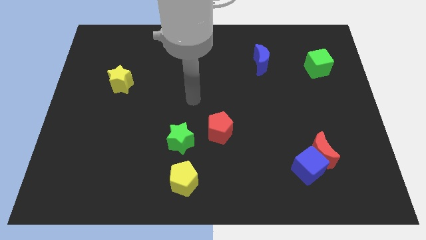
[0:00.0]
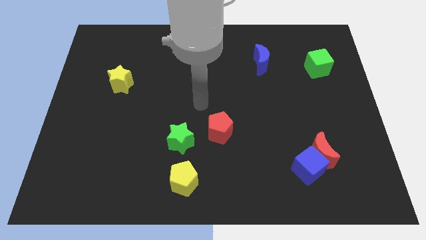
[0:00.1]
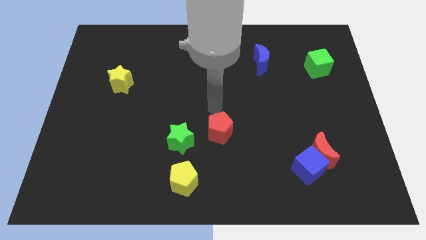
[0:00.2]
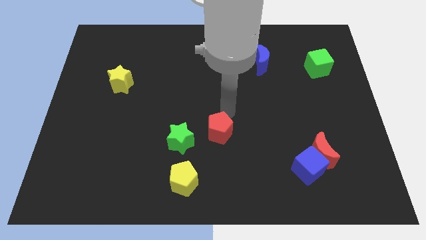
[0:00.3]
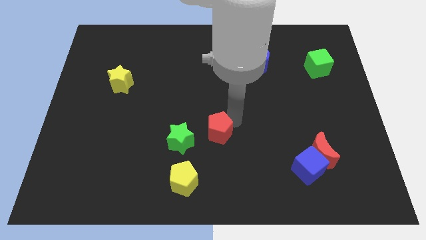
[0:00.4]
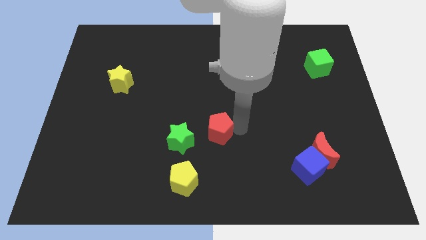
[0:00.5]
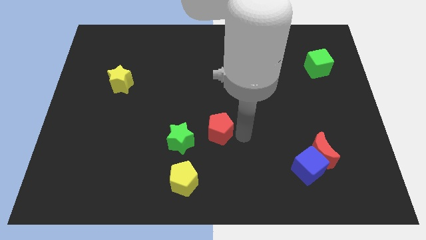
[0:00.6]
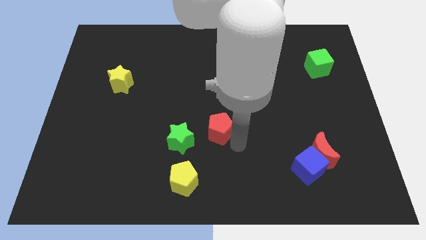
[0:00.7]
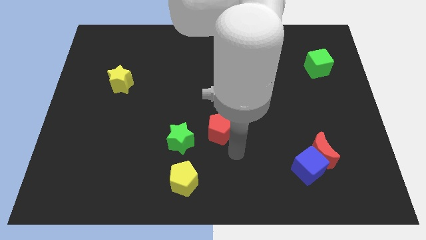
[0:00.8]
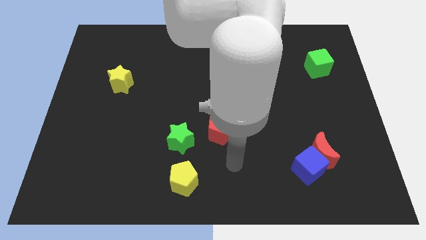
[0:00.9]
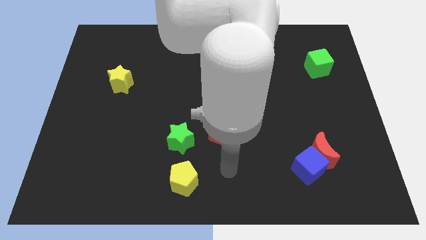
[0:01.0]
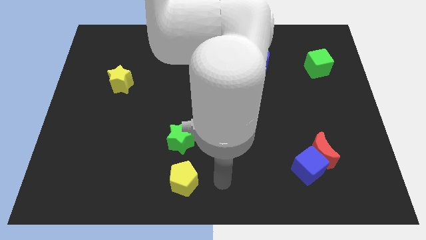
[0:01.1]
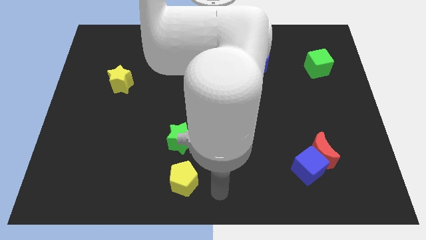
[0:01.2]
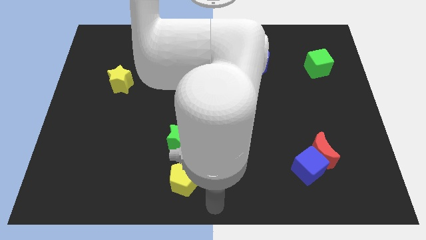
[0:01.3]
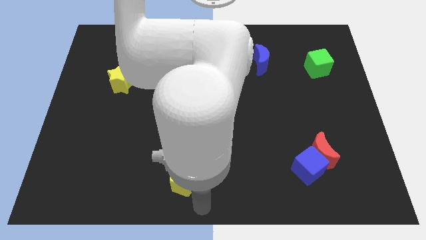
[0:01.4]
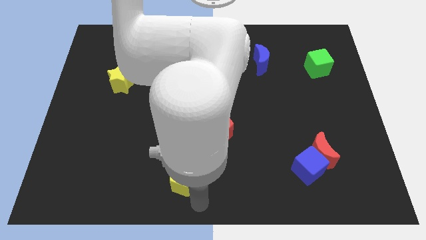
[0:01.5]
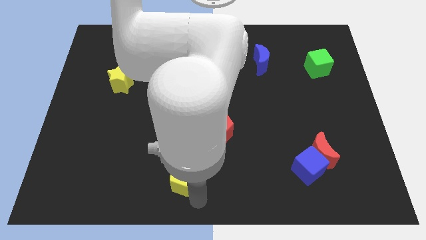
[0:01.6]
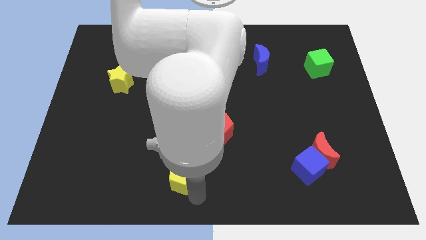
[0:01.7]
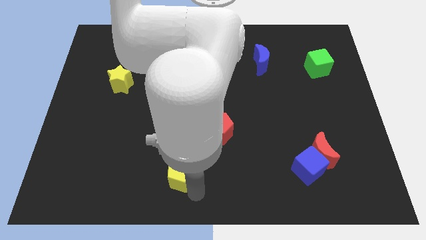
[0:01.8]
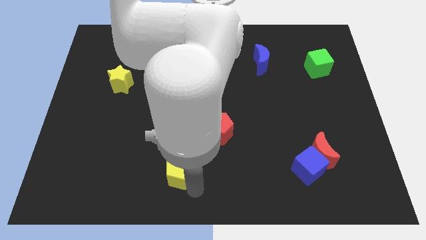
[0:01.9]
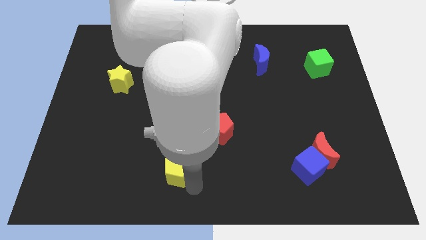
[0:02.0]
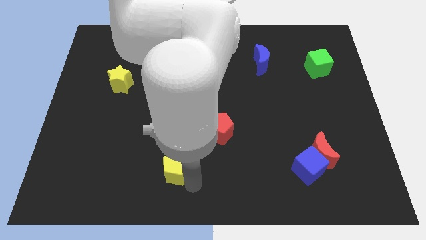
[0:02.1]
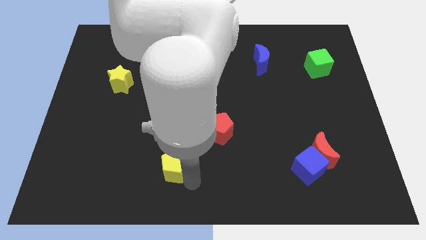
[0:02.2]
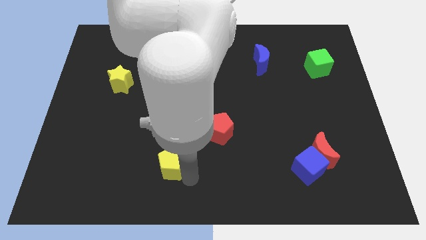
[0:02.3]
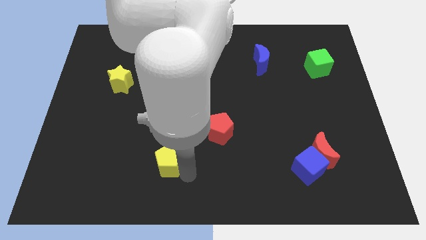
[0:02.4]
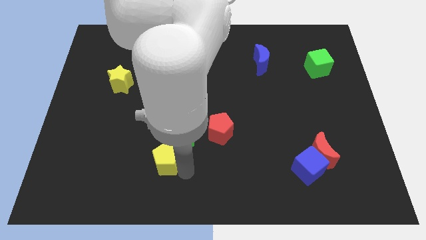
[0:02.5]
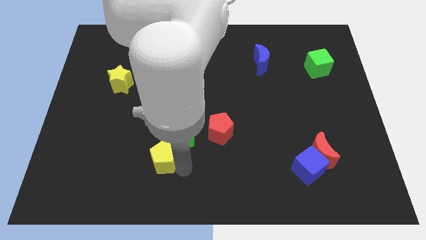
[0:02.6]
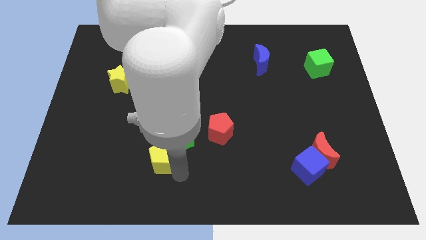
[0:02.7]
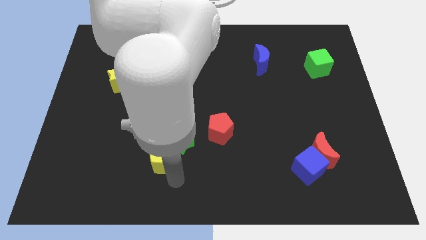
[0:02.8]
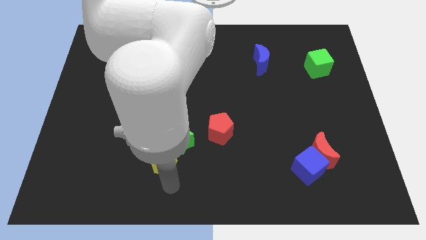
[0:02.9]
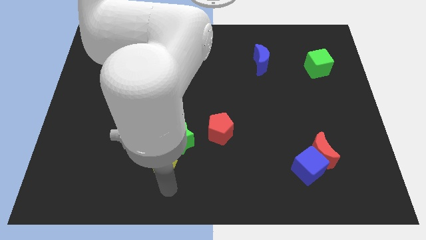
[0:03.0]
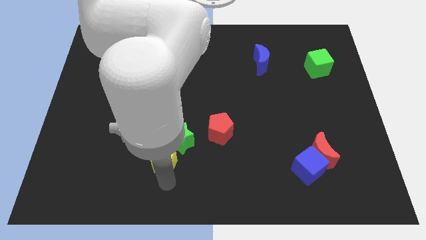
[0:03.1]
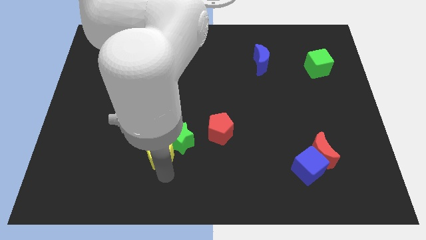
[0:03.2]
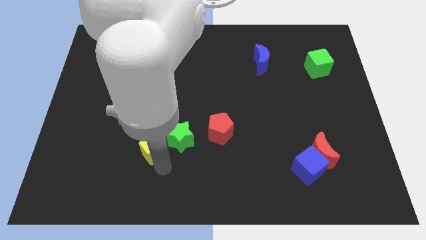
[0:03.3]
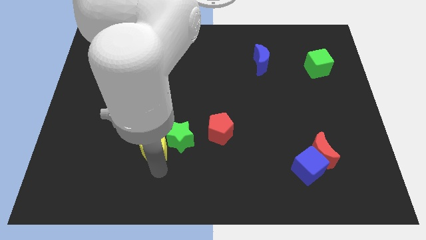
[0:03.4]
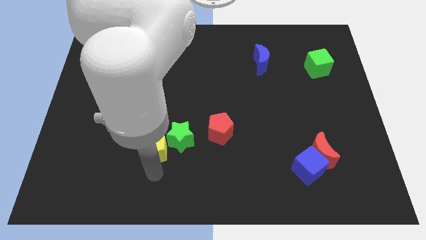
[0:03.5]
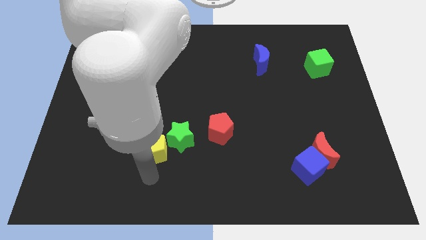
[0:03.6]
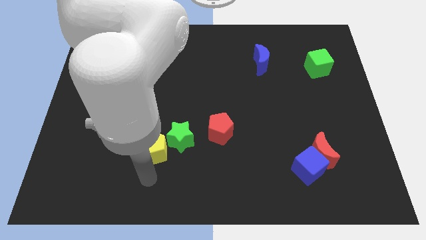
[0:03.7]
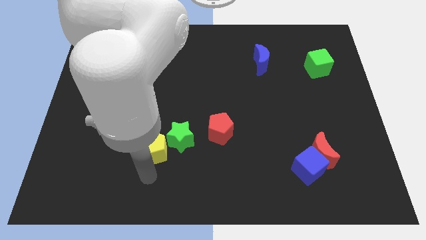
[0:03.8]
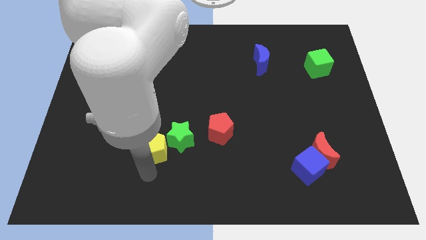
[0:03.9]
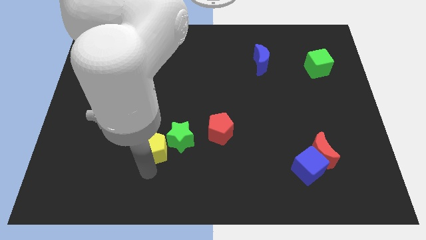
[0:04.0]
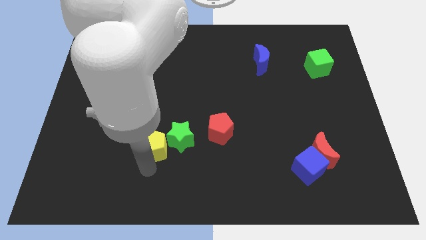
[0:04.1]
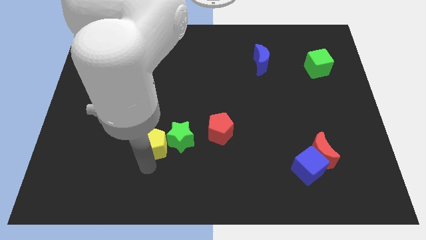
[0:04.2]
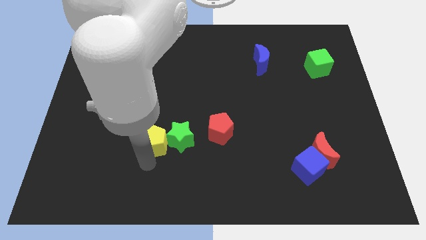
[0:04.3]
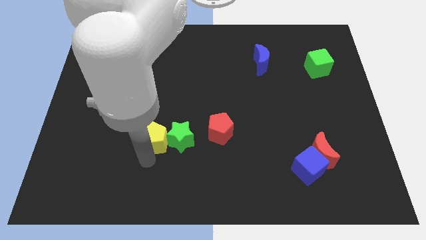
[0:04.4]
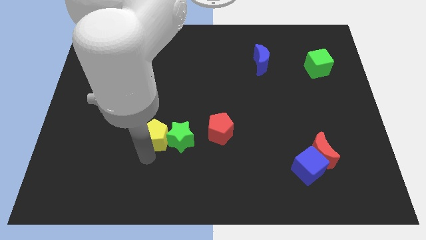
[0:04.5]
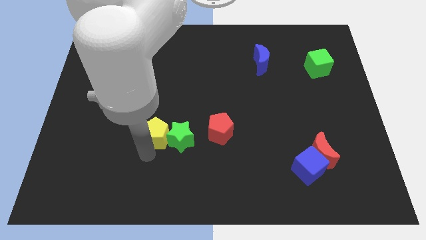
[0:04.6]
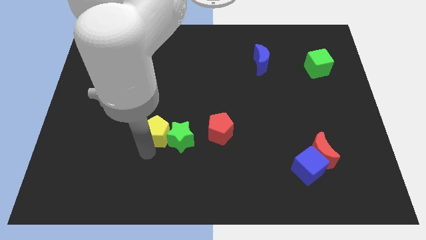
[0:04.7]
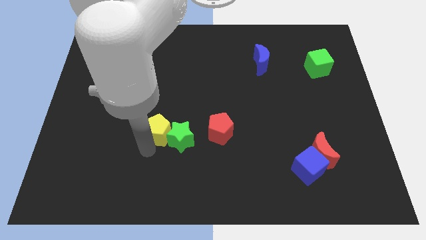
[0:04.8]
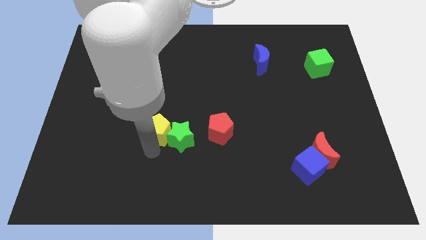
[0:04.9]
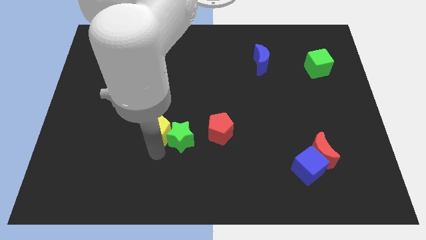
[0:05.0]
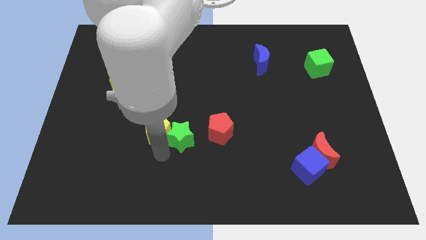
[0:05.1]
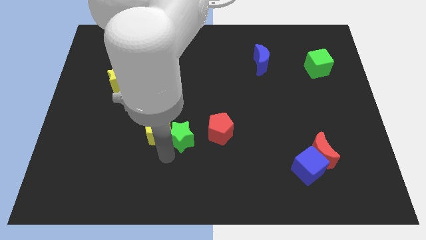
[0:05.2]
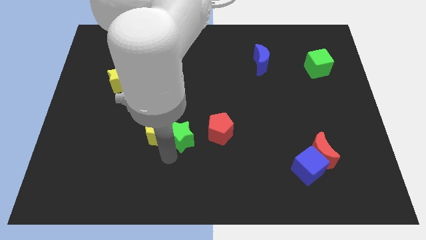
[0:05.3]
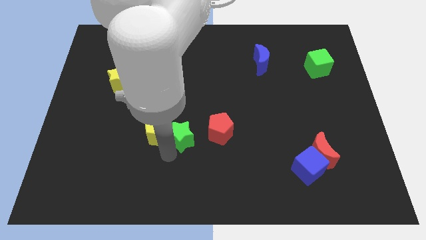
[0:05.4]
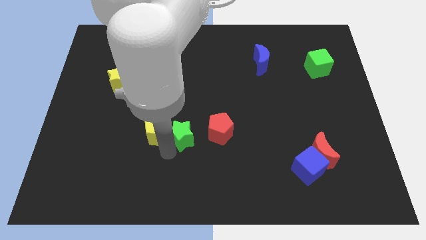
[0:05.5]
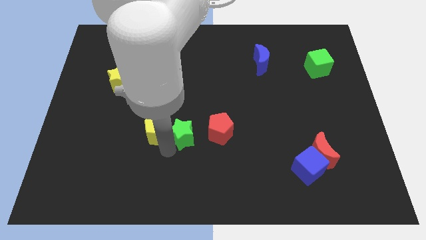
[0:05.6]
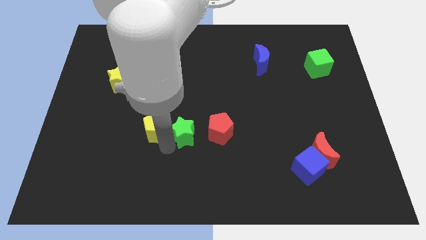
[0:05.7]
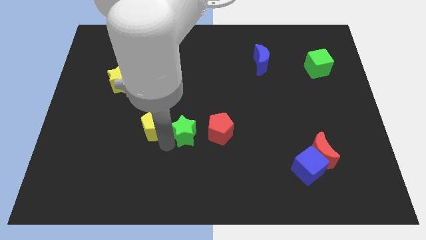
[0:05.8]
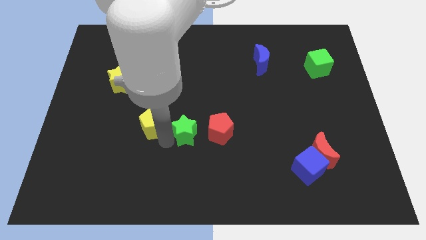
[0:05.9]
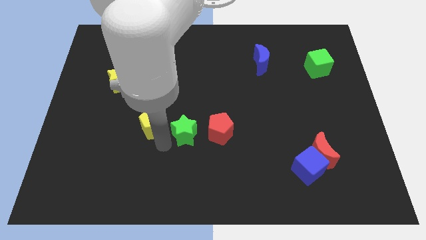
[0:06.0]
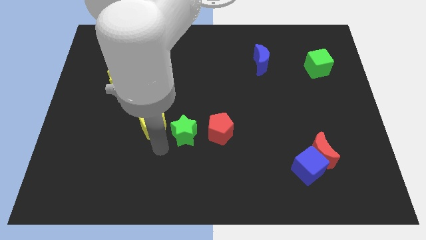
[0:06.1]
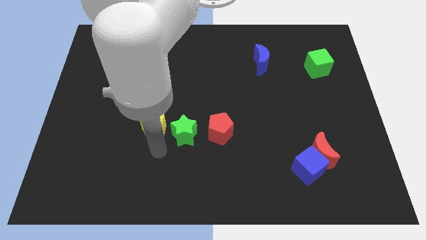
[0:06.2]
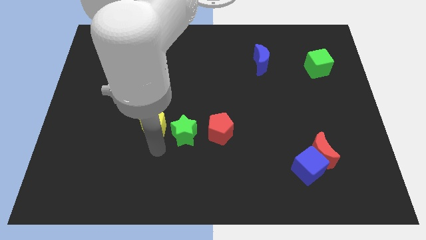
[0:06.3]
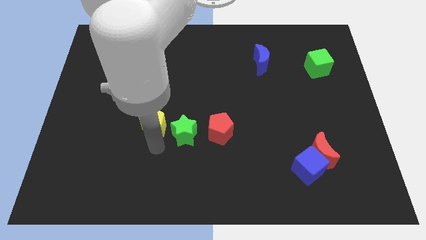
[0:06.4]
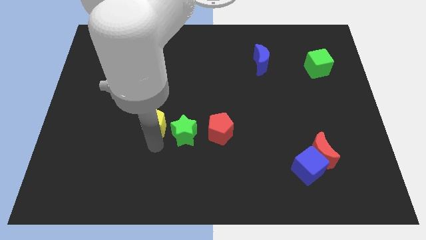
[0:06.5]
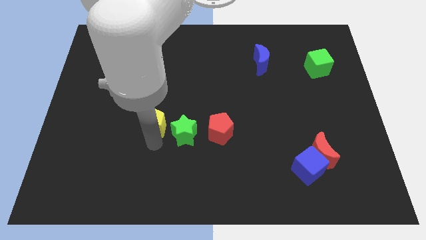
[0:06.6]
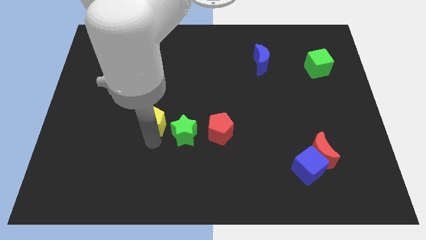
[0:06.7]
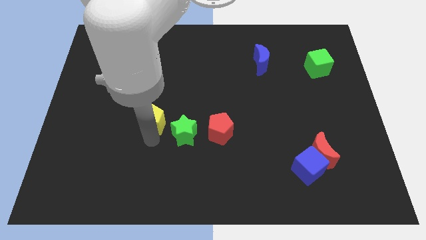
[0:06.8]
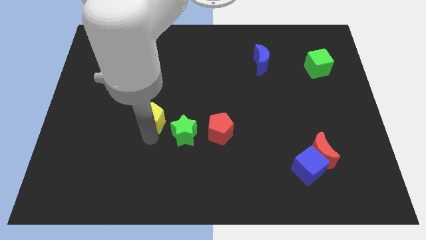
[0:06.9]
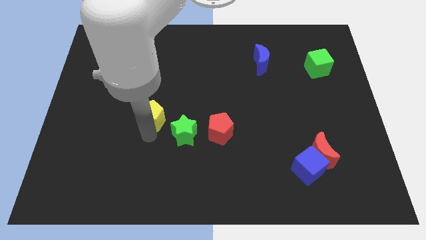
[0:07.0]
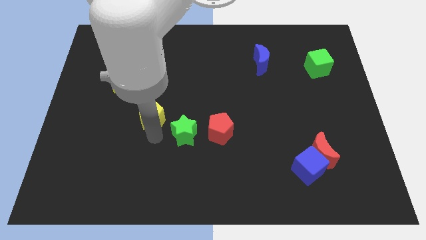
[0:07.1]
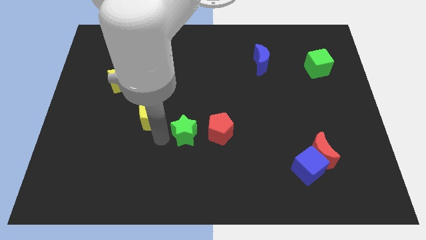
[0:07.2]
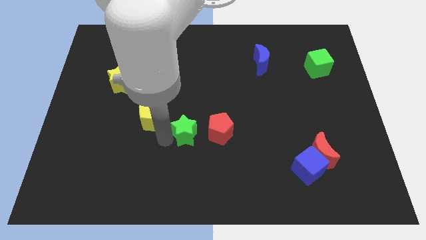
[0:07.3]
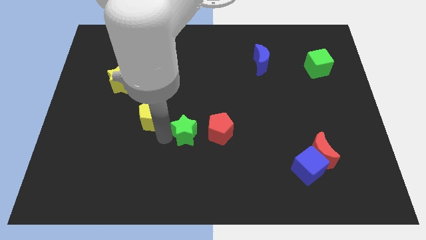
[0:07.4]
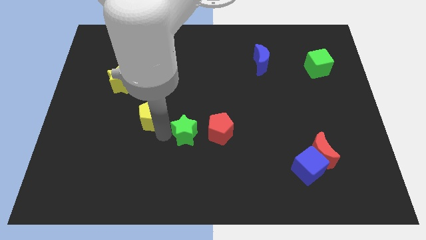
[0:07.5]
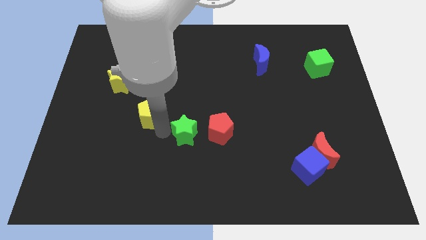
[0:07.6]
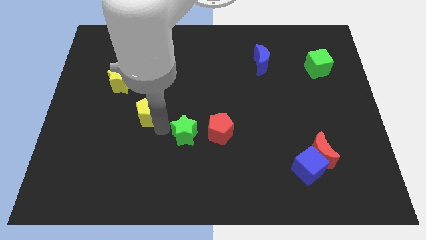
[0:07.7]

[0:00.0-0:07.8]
push the yellow pentagon to the bottom right side of the yellow star
